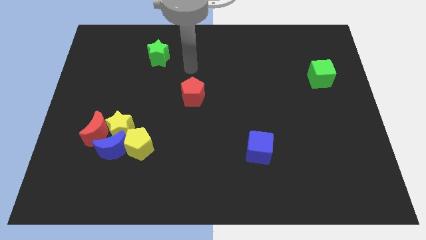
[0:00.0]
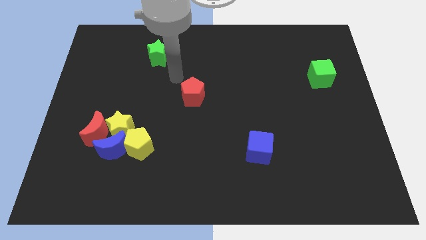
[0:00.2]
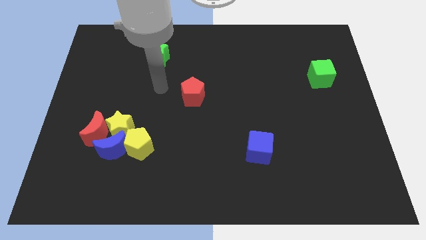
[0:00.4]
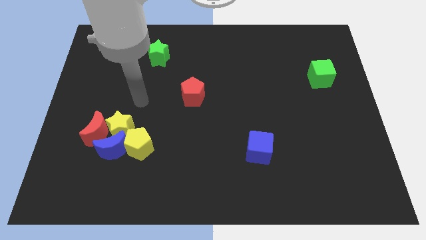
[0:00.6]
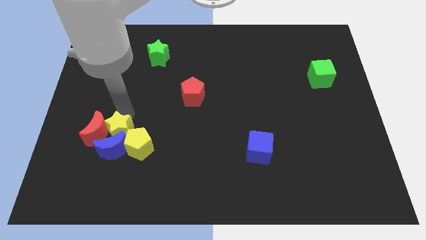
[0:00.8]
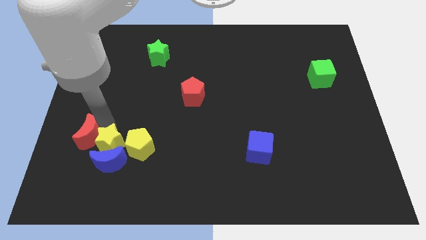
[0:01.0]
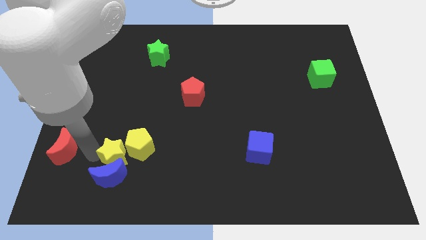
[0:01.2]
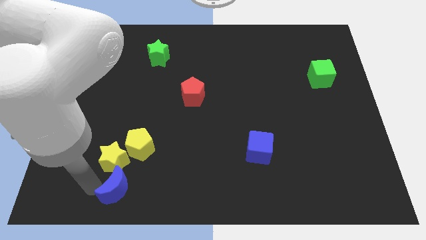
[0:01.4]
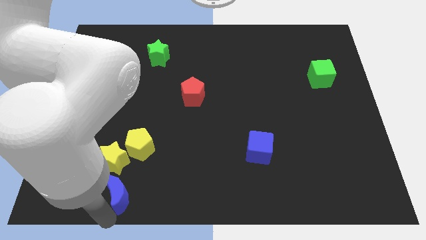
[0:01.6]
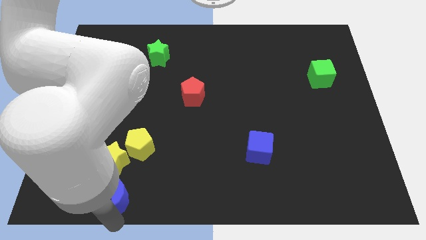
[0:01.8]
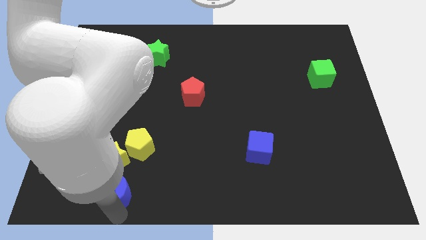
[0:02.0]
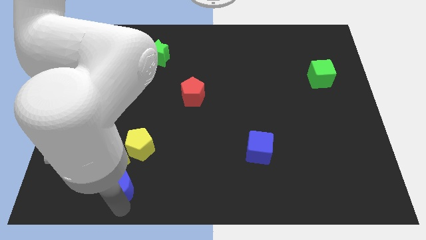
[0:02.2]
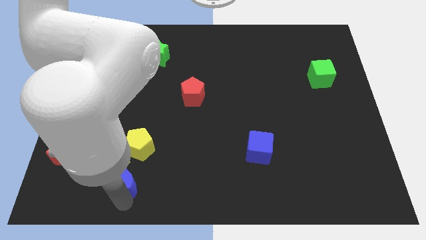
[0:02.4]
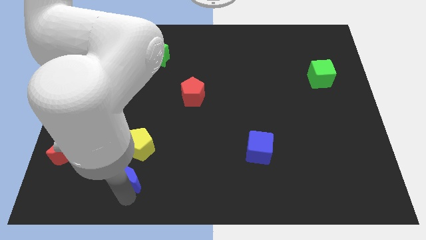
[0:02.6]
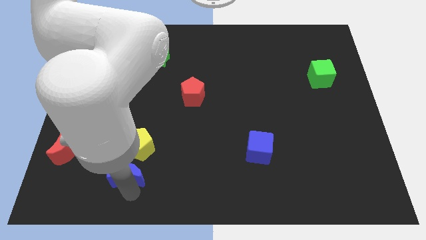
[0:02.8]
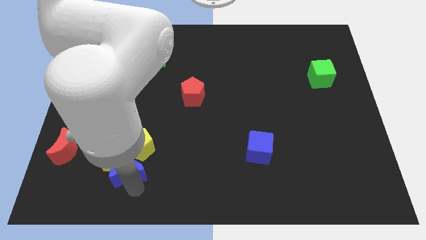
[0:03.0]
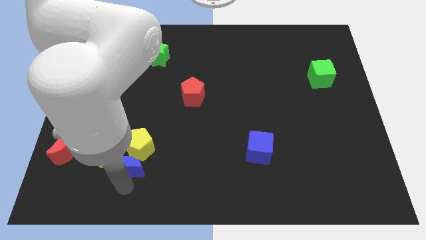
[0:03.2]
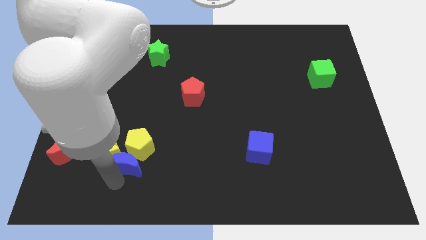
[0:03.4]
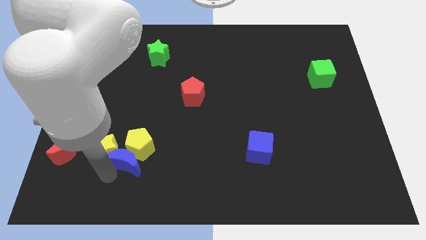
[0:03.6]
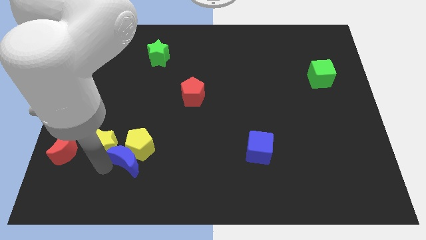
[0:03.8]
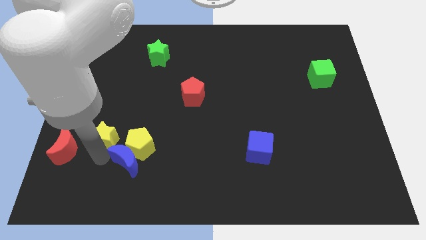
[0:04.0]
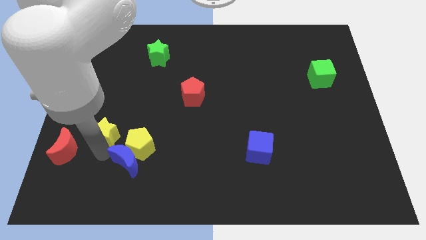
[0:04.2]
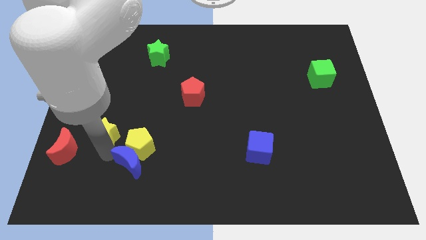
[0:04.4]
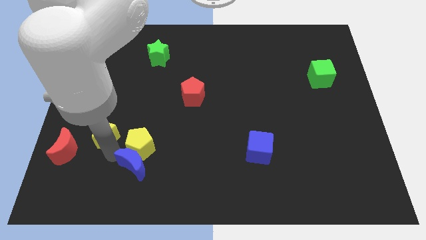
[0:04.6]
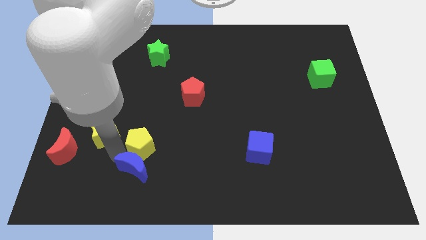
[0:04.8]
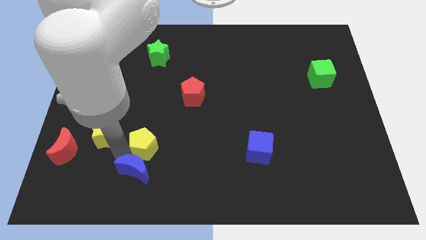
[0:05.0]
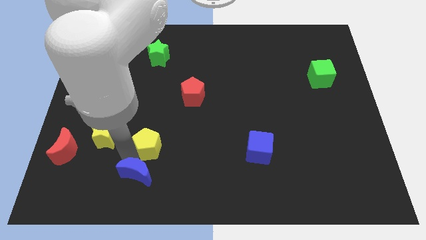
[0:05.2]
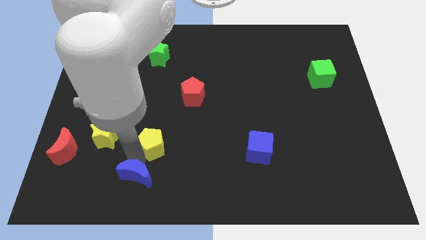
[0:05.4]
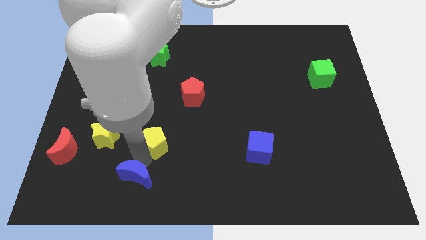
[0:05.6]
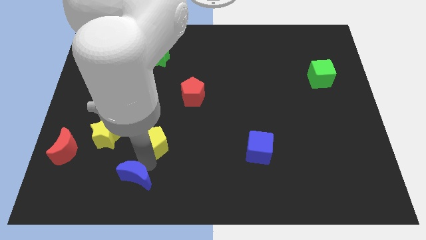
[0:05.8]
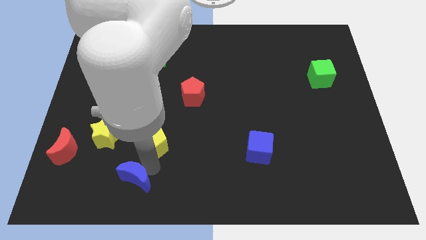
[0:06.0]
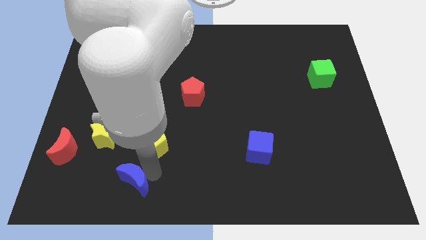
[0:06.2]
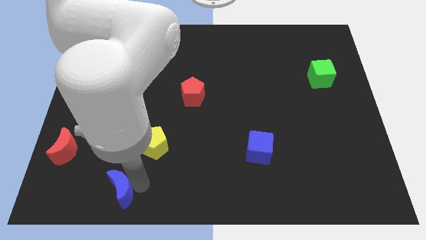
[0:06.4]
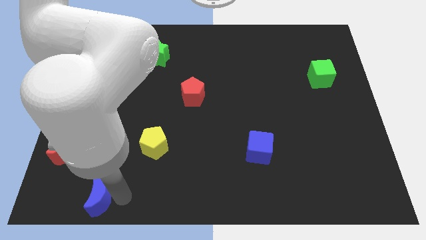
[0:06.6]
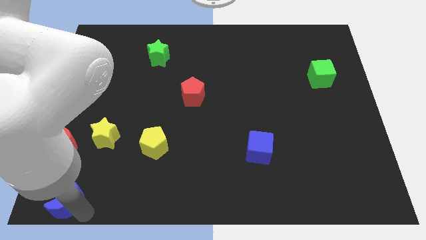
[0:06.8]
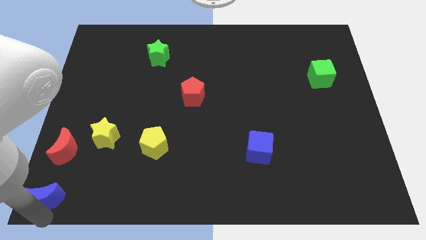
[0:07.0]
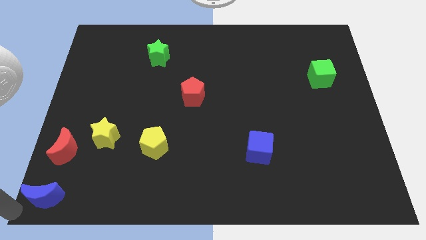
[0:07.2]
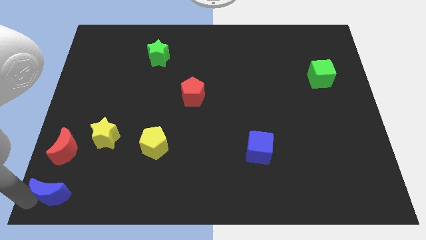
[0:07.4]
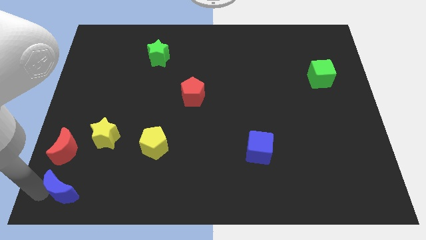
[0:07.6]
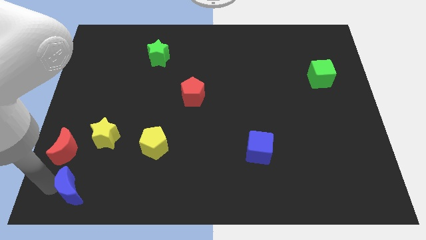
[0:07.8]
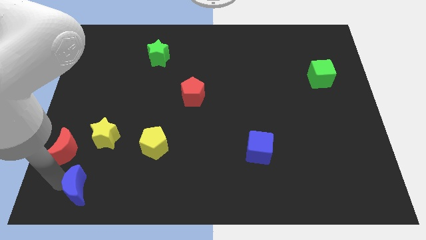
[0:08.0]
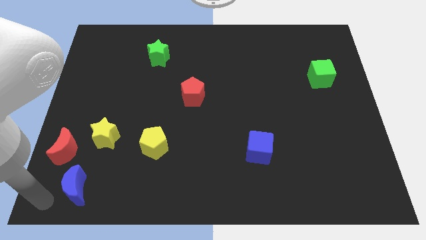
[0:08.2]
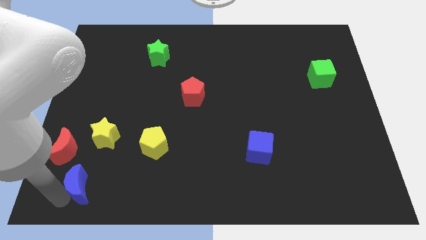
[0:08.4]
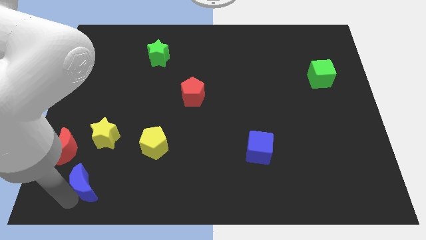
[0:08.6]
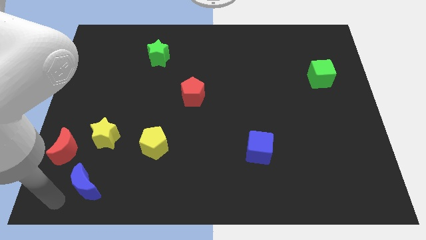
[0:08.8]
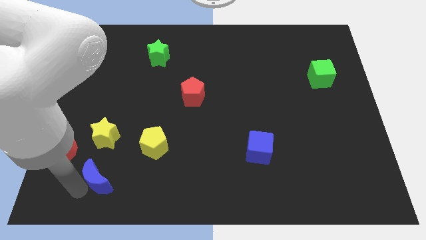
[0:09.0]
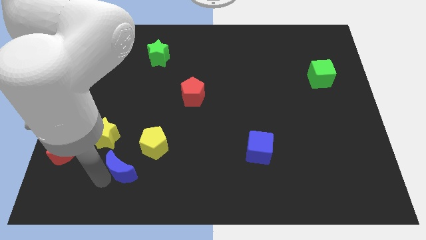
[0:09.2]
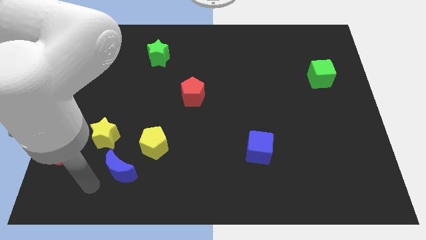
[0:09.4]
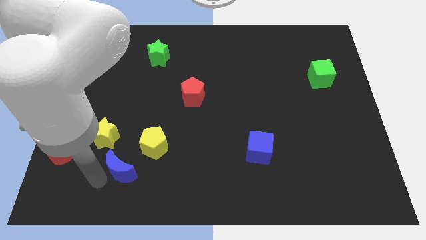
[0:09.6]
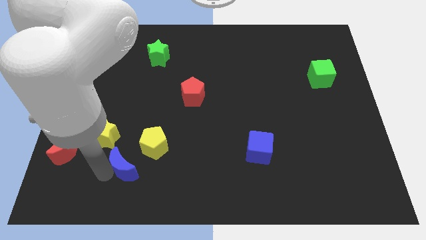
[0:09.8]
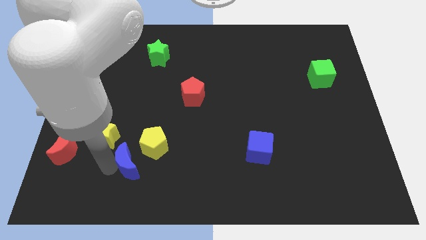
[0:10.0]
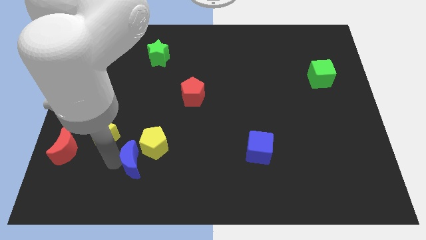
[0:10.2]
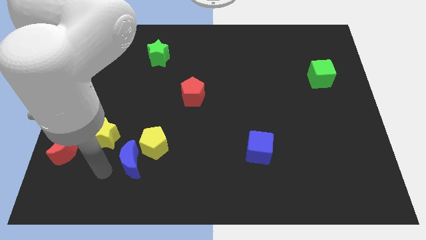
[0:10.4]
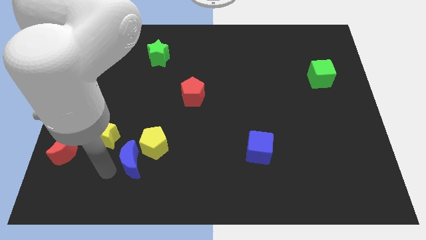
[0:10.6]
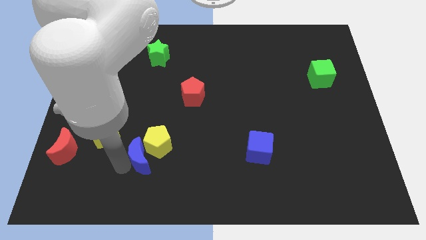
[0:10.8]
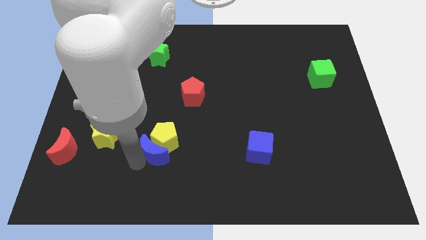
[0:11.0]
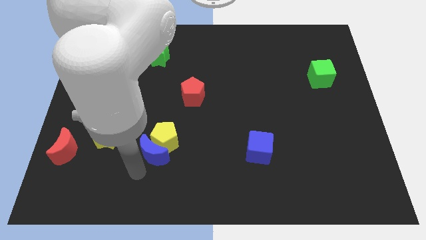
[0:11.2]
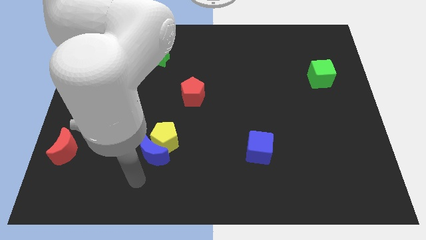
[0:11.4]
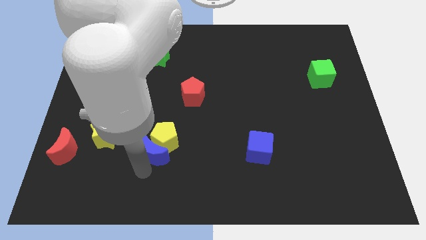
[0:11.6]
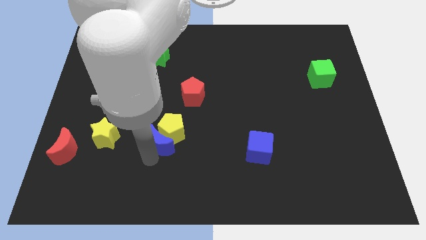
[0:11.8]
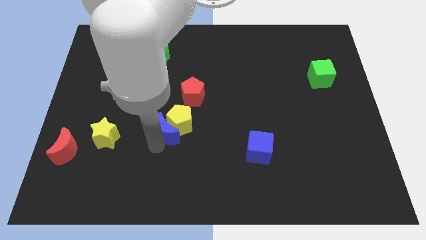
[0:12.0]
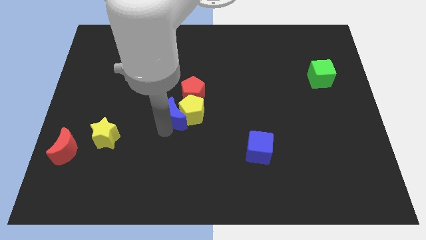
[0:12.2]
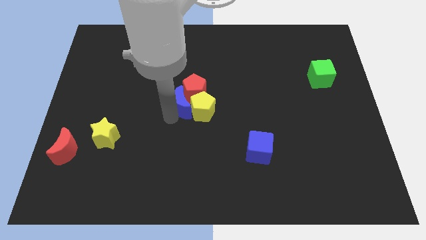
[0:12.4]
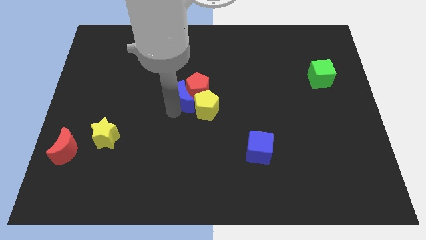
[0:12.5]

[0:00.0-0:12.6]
push the blue moon diagonally upwards and right

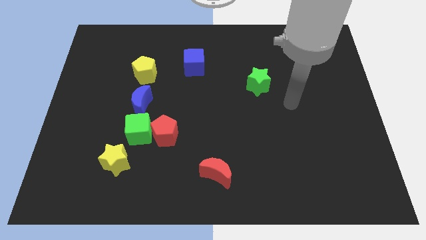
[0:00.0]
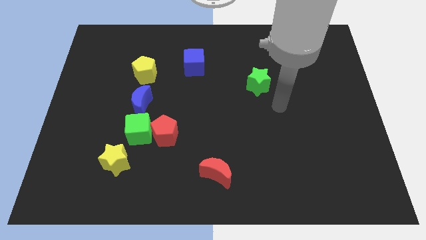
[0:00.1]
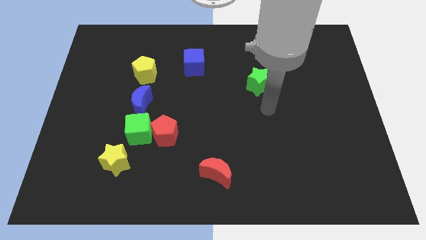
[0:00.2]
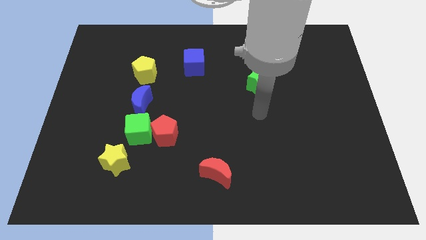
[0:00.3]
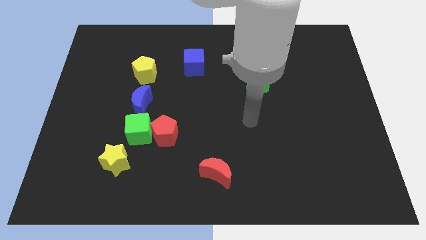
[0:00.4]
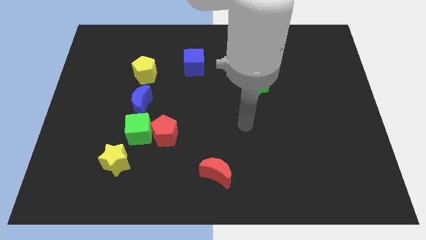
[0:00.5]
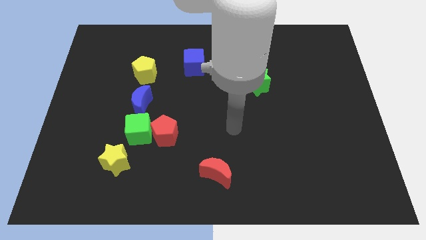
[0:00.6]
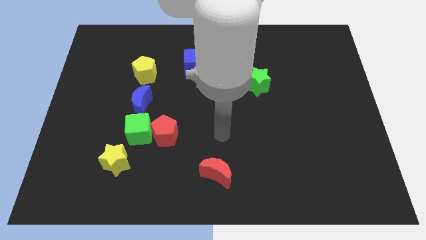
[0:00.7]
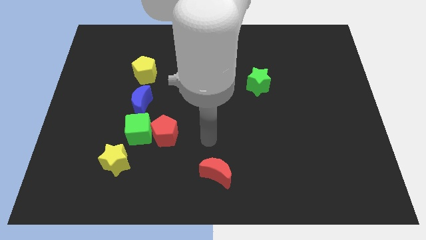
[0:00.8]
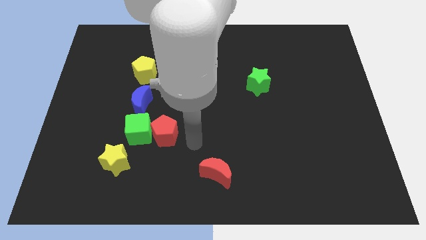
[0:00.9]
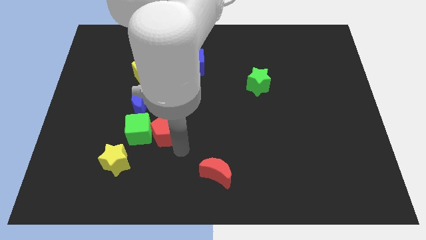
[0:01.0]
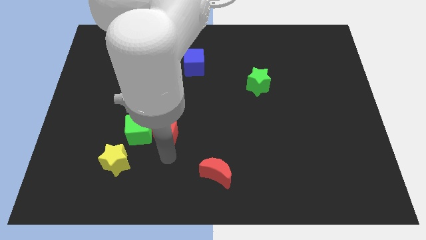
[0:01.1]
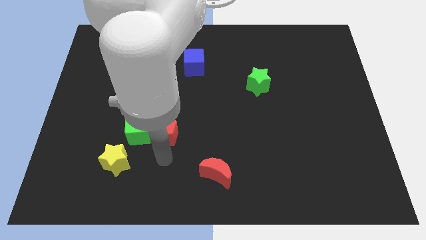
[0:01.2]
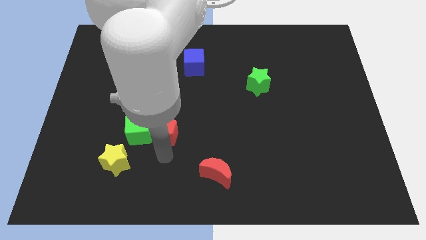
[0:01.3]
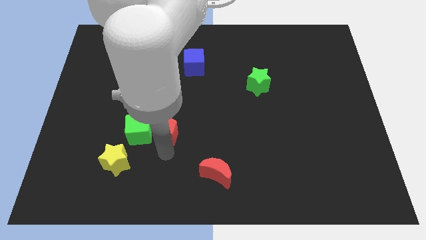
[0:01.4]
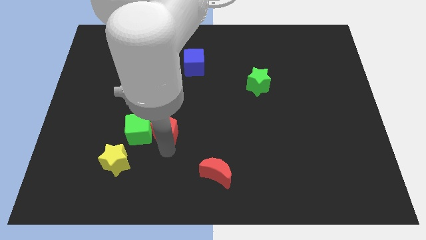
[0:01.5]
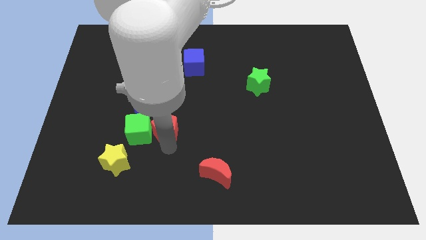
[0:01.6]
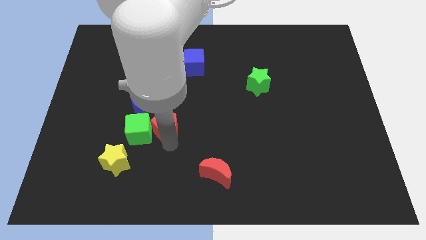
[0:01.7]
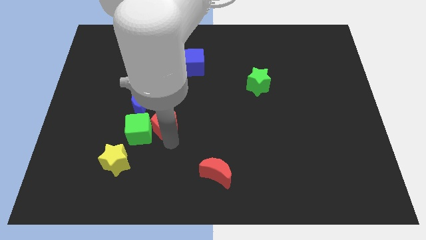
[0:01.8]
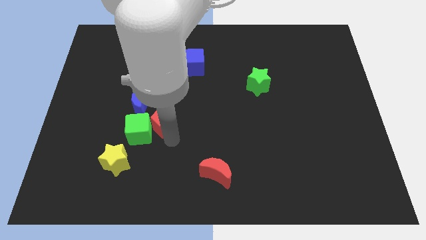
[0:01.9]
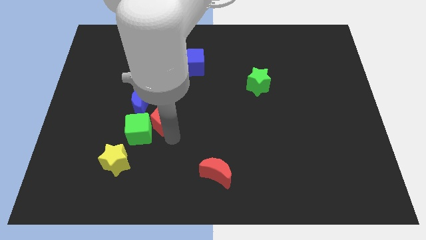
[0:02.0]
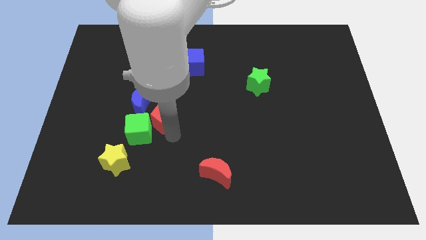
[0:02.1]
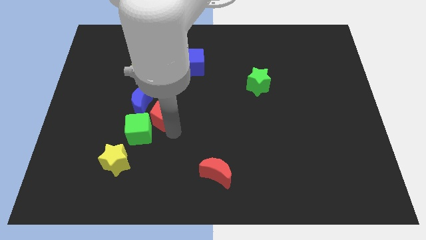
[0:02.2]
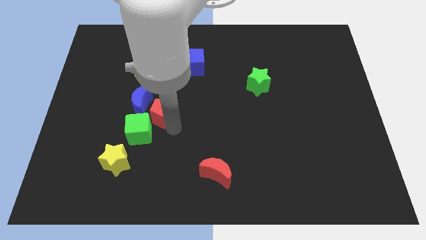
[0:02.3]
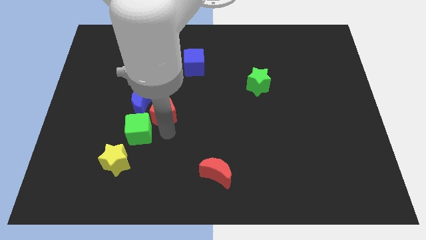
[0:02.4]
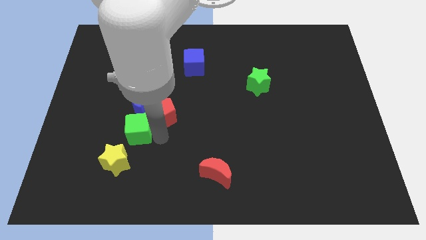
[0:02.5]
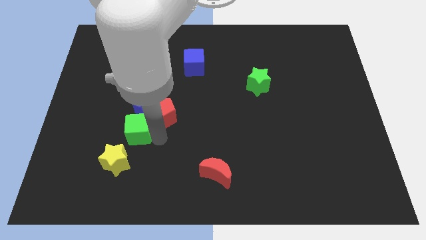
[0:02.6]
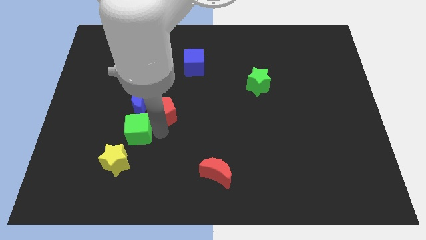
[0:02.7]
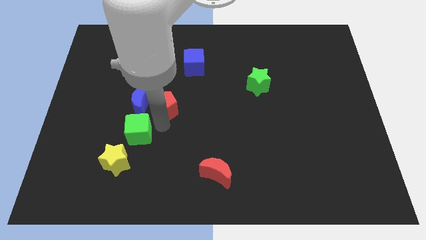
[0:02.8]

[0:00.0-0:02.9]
move the red pentagon slightly upwards
